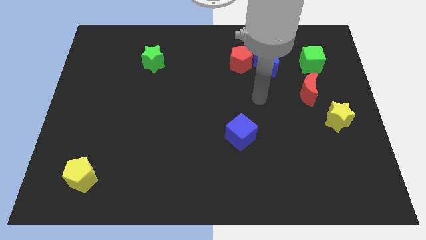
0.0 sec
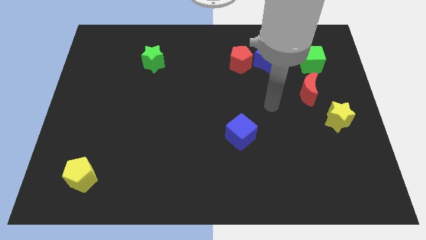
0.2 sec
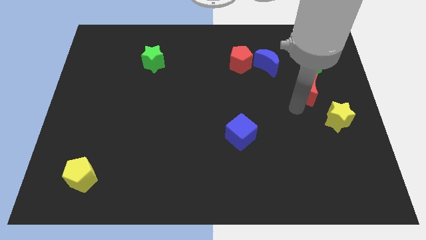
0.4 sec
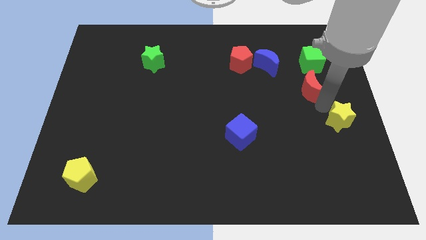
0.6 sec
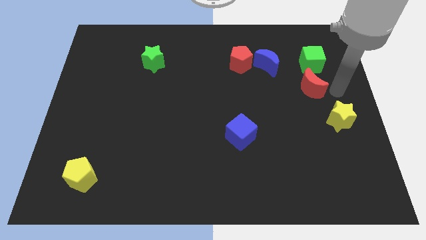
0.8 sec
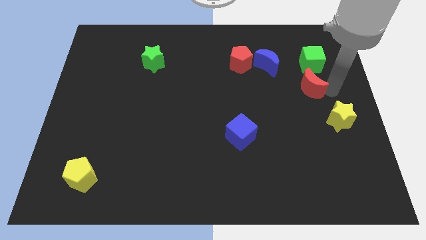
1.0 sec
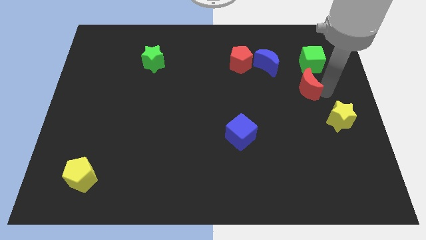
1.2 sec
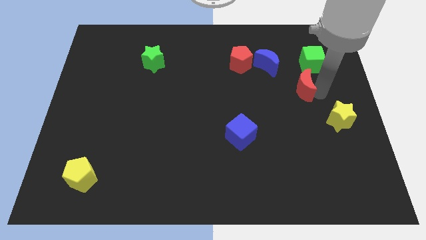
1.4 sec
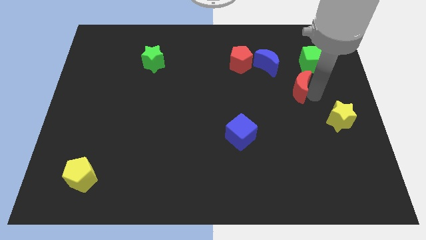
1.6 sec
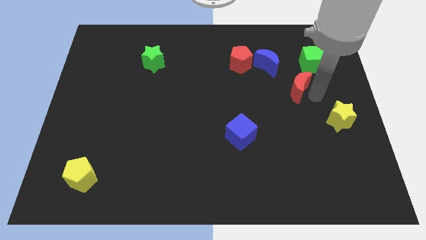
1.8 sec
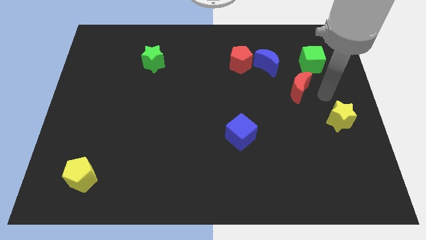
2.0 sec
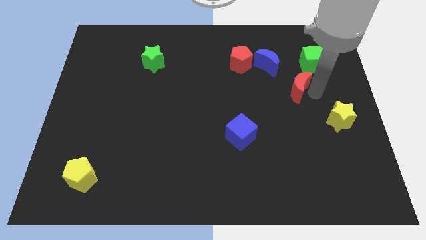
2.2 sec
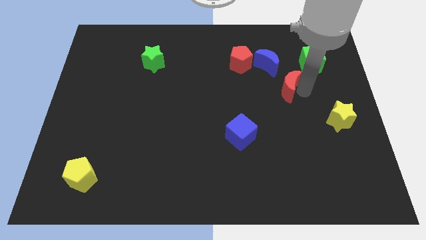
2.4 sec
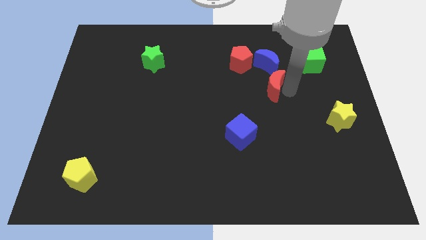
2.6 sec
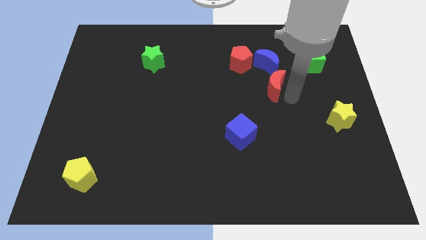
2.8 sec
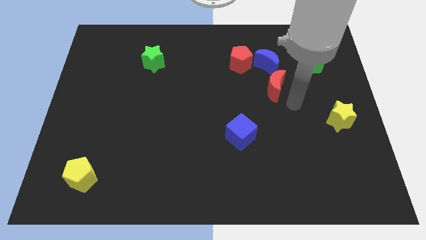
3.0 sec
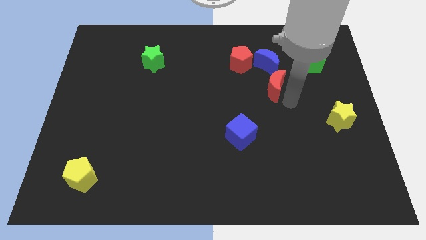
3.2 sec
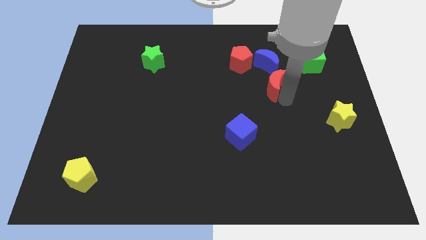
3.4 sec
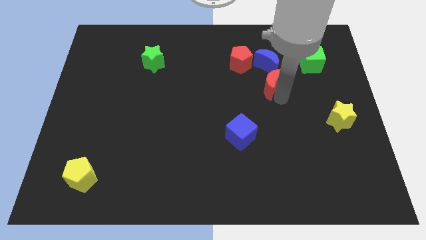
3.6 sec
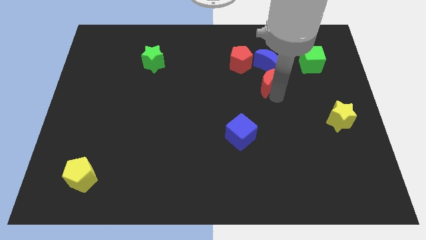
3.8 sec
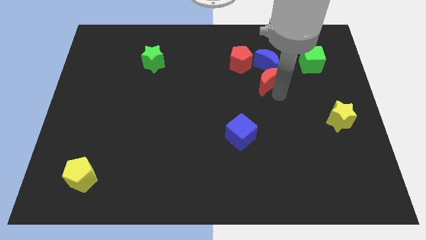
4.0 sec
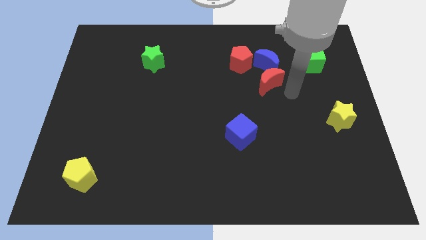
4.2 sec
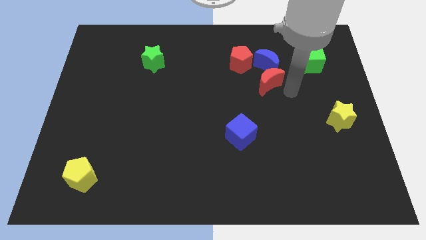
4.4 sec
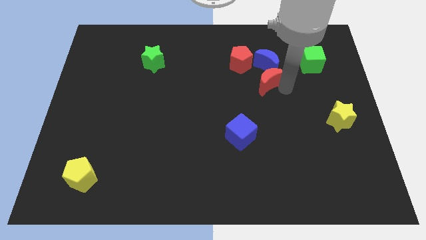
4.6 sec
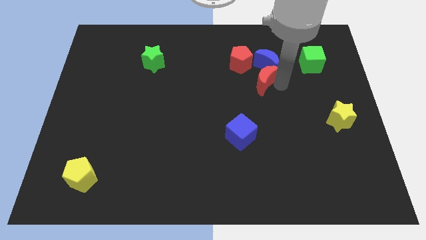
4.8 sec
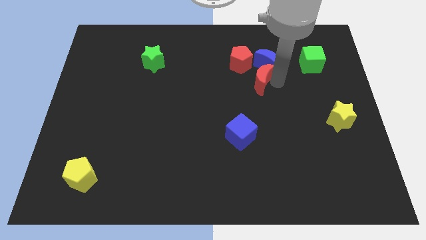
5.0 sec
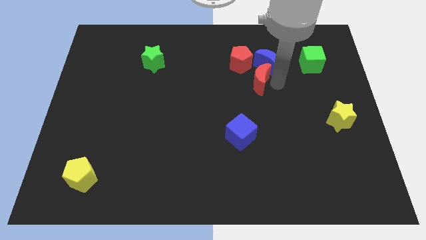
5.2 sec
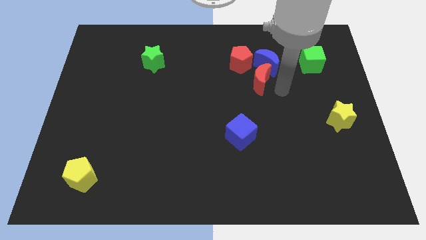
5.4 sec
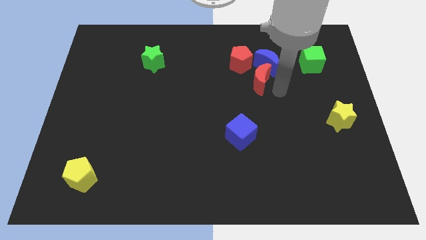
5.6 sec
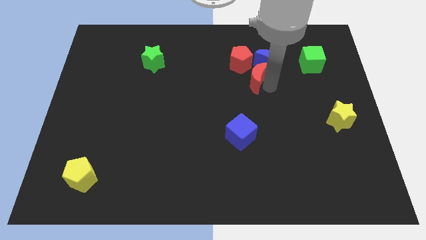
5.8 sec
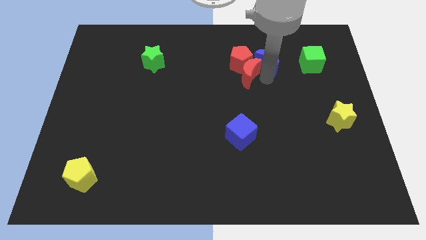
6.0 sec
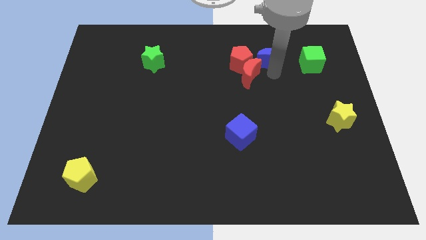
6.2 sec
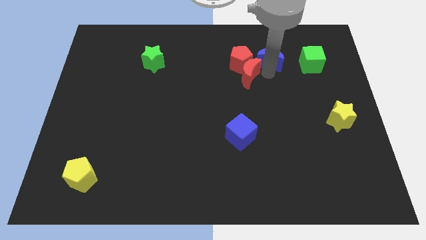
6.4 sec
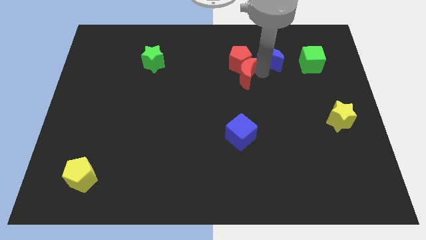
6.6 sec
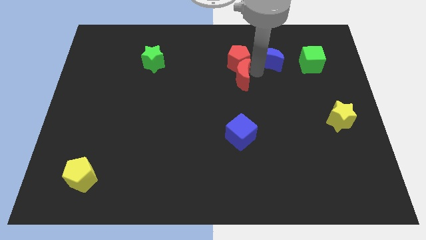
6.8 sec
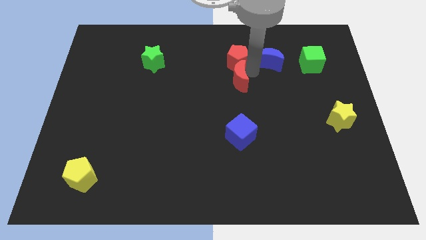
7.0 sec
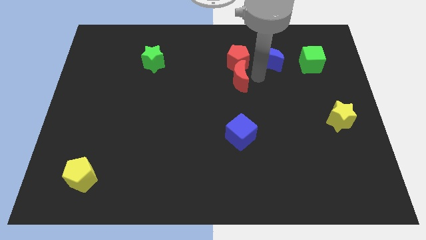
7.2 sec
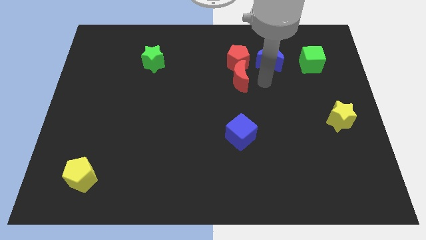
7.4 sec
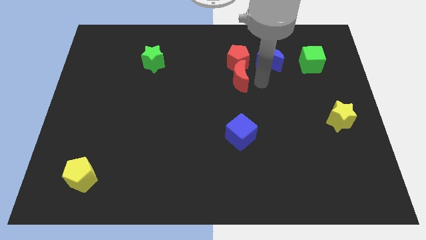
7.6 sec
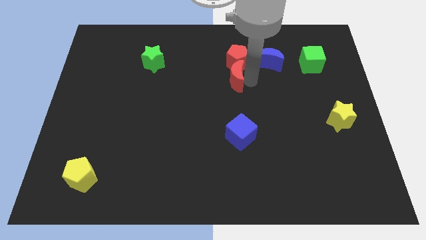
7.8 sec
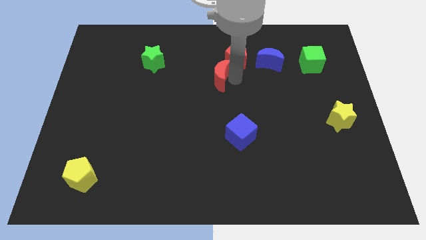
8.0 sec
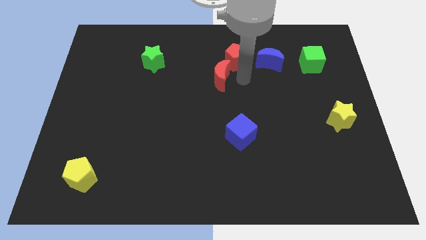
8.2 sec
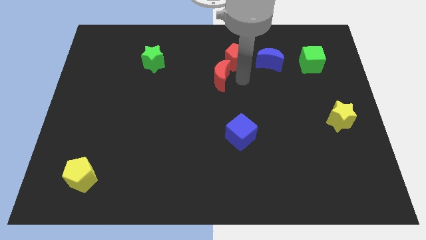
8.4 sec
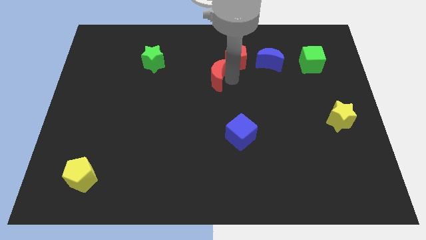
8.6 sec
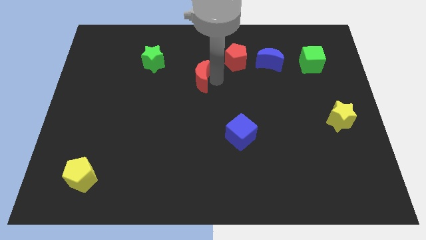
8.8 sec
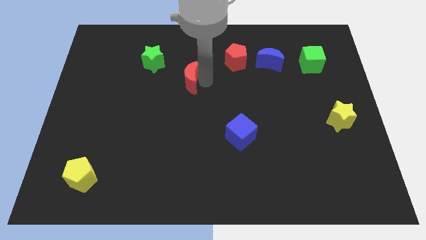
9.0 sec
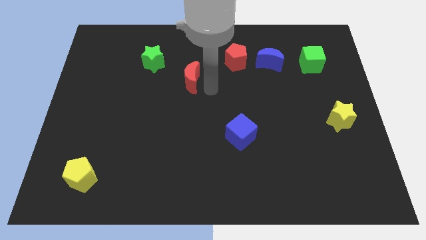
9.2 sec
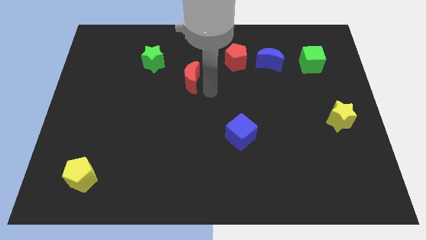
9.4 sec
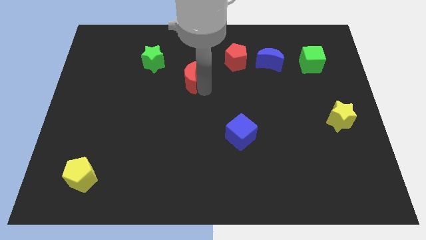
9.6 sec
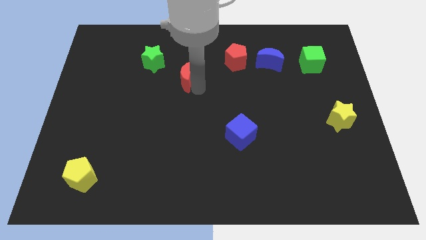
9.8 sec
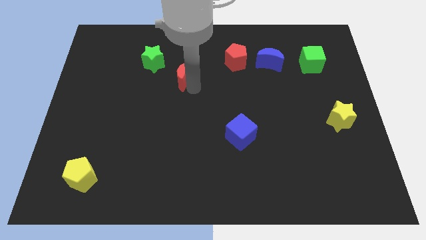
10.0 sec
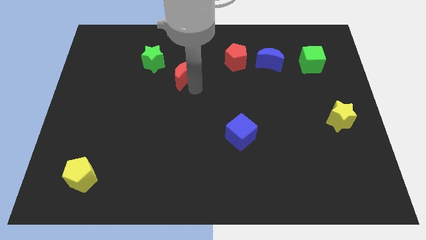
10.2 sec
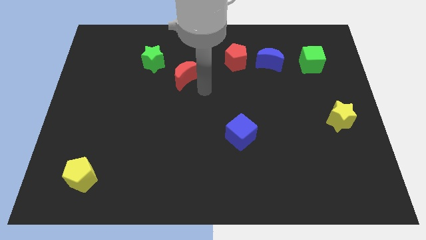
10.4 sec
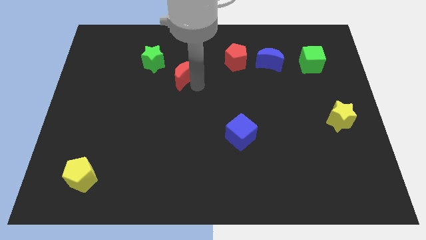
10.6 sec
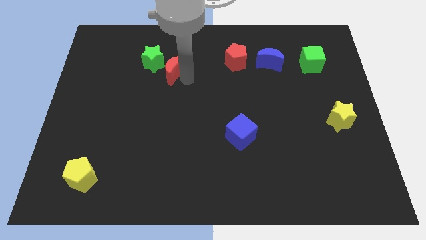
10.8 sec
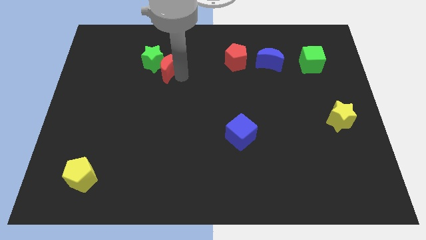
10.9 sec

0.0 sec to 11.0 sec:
push the red moon next to the green star

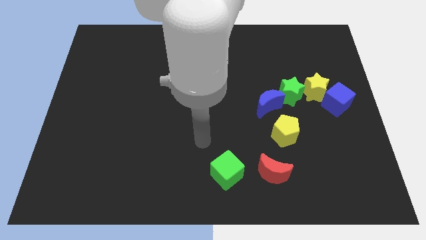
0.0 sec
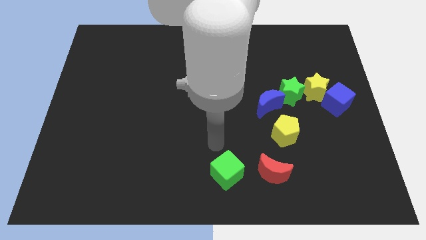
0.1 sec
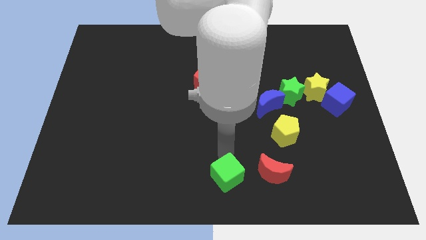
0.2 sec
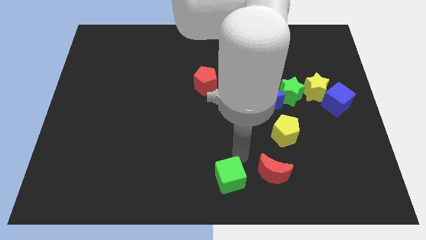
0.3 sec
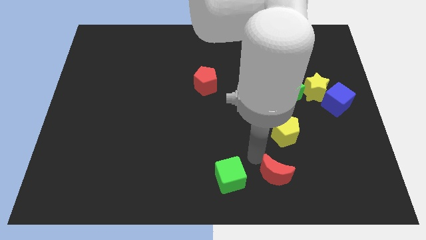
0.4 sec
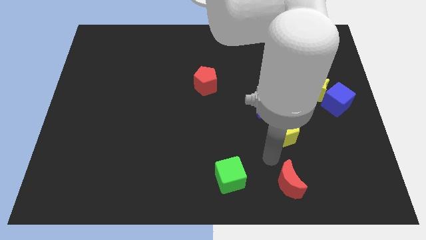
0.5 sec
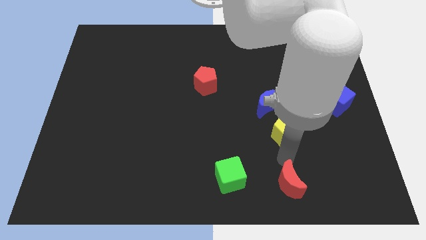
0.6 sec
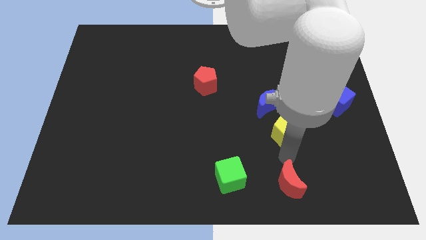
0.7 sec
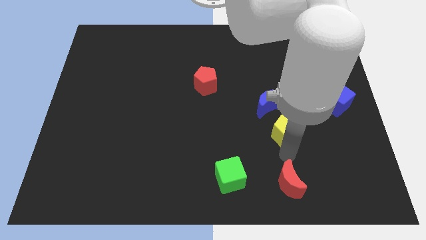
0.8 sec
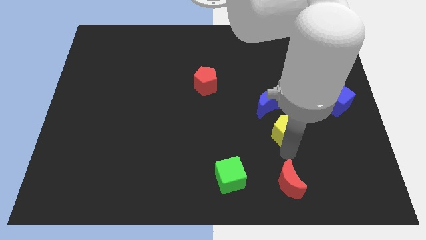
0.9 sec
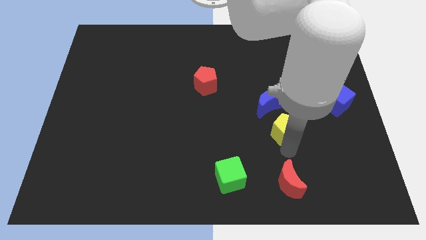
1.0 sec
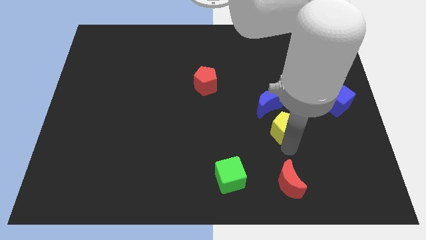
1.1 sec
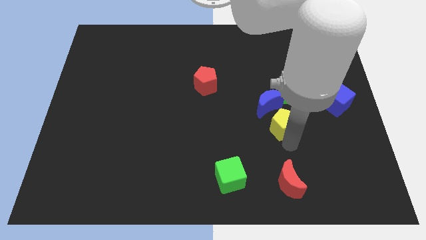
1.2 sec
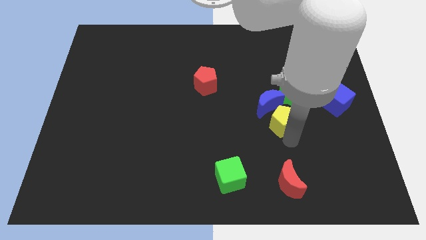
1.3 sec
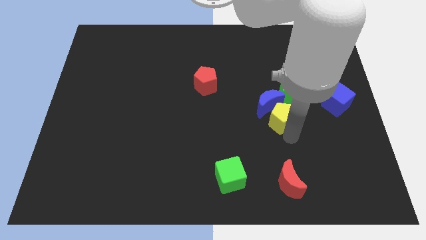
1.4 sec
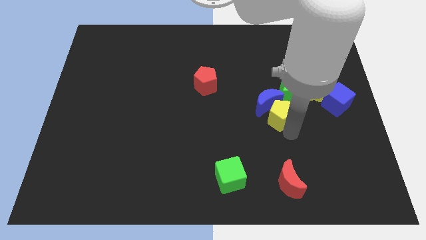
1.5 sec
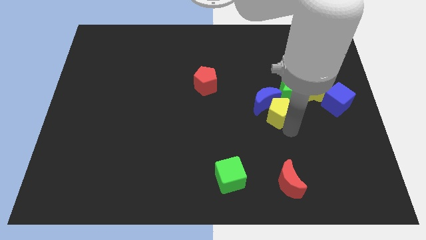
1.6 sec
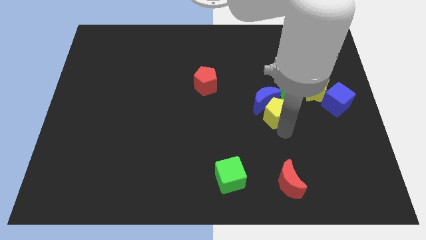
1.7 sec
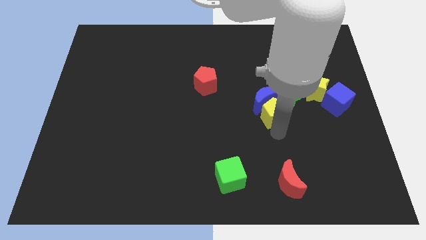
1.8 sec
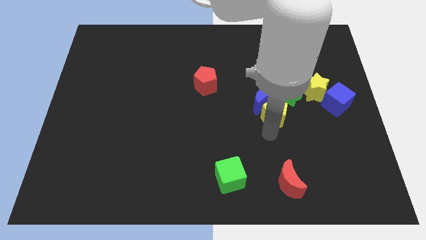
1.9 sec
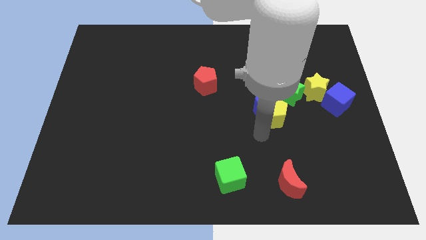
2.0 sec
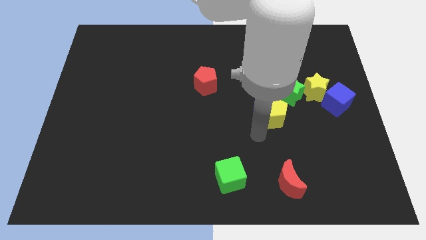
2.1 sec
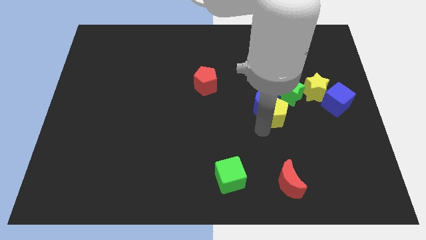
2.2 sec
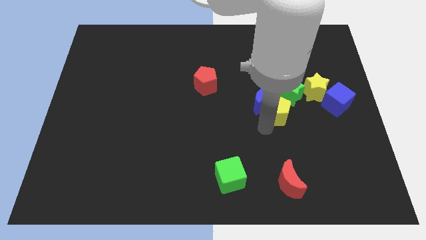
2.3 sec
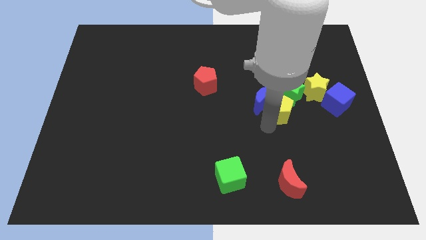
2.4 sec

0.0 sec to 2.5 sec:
push the yellow pentagon towards the green star

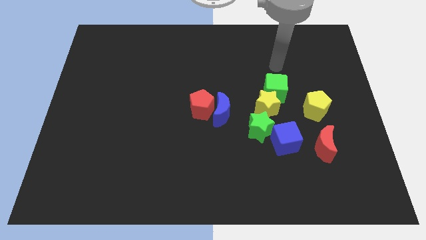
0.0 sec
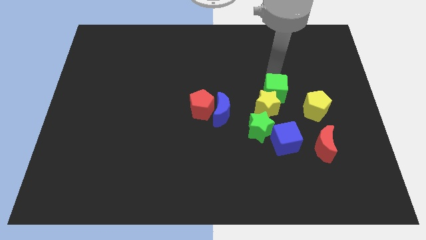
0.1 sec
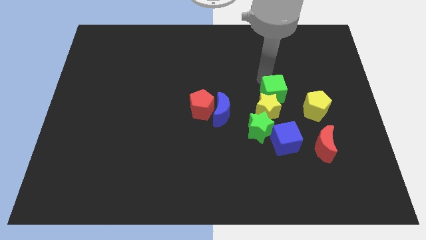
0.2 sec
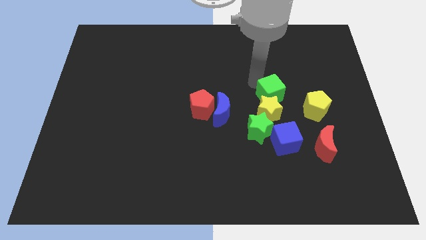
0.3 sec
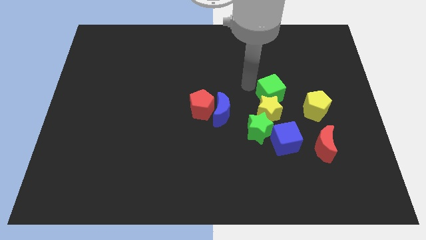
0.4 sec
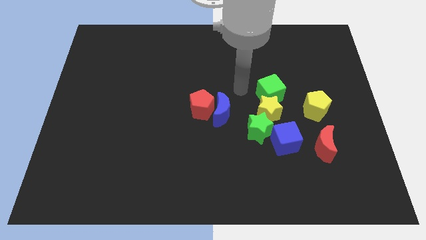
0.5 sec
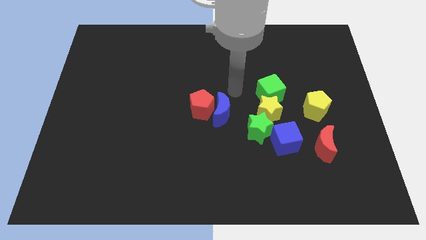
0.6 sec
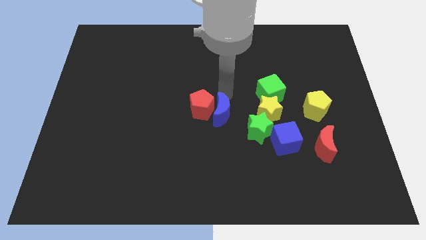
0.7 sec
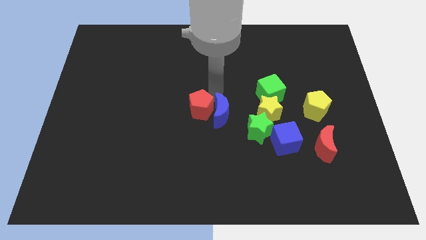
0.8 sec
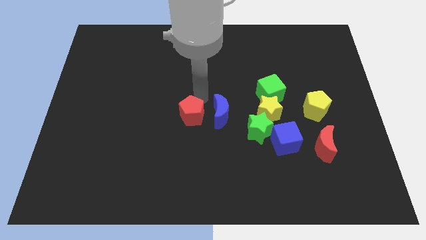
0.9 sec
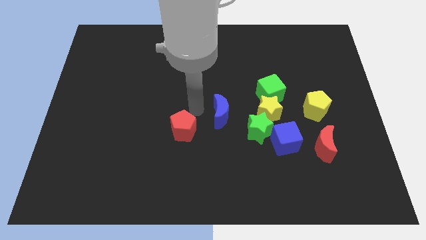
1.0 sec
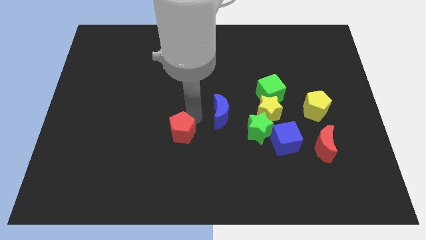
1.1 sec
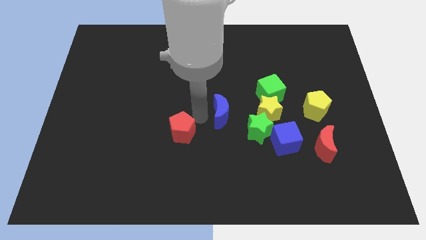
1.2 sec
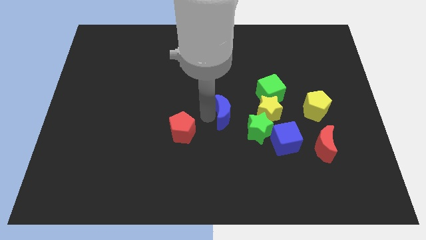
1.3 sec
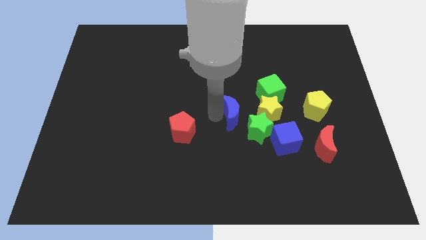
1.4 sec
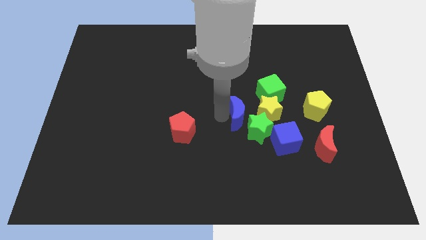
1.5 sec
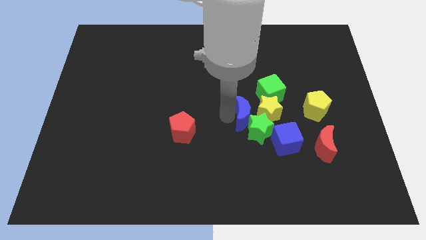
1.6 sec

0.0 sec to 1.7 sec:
push the blue moon to the yellow star
